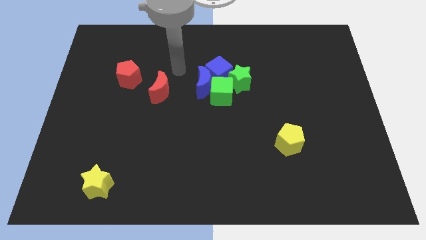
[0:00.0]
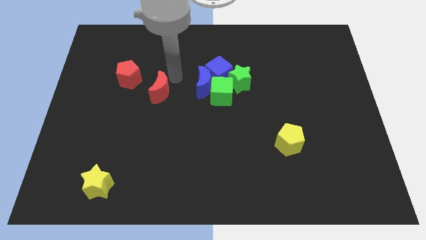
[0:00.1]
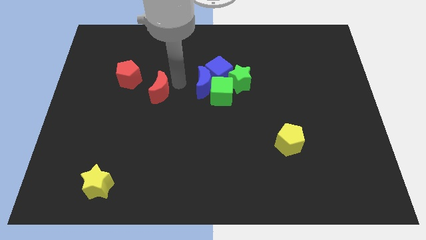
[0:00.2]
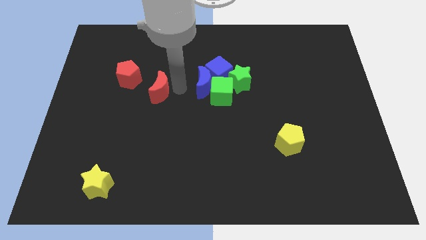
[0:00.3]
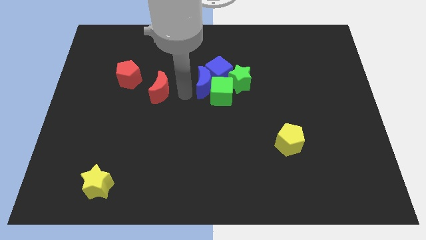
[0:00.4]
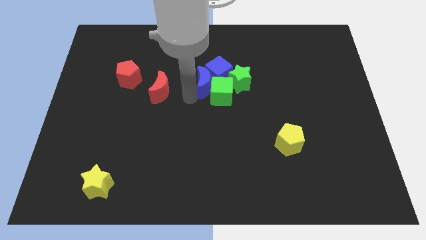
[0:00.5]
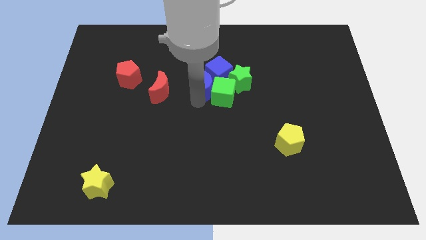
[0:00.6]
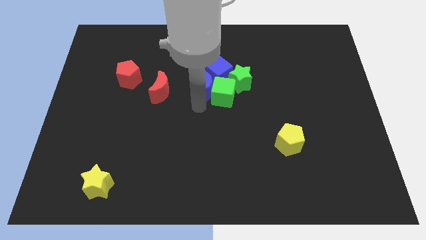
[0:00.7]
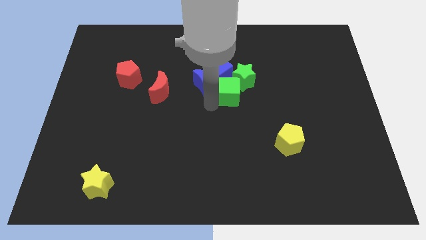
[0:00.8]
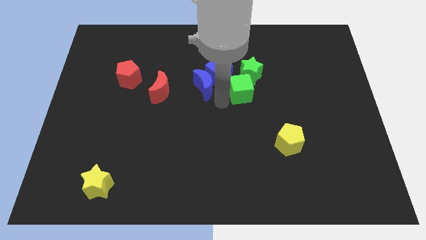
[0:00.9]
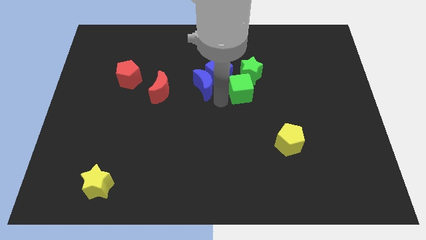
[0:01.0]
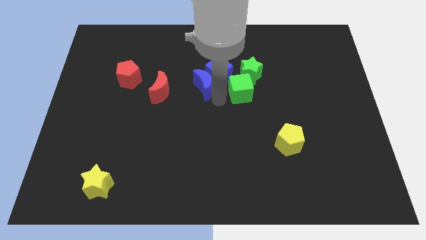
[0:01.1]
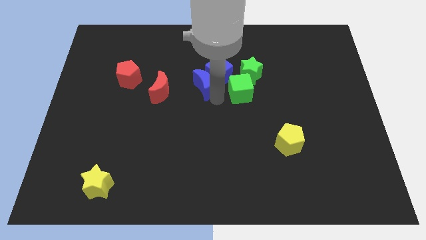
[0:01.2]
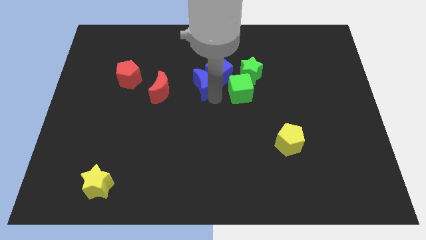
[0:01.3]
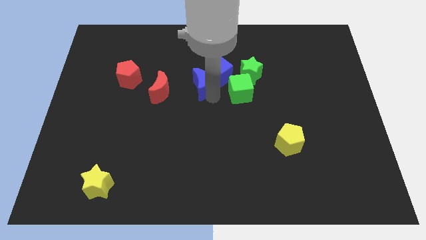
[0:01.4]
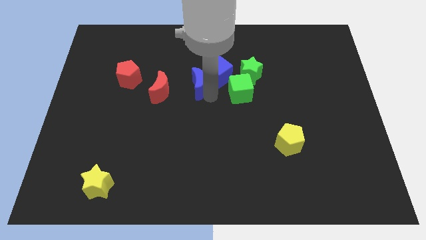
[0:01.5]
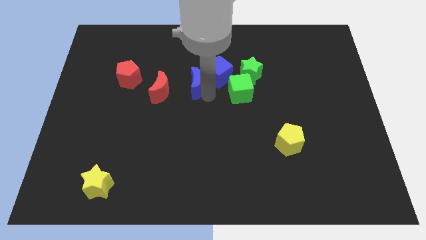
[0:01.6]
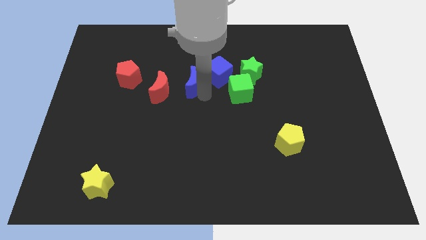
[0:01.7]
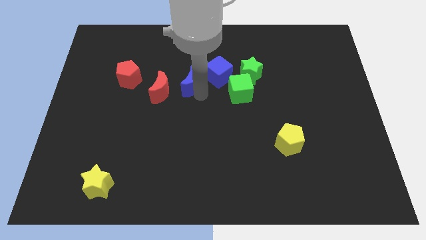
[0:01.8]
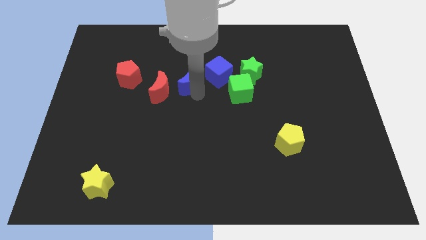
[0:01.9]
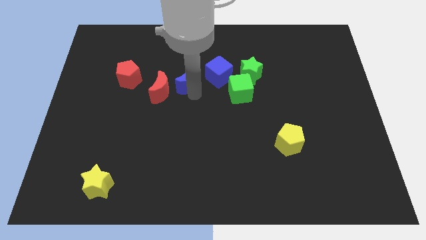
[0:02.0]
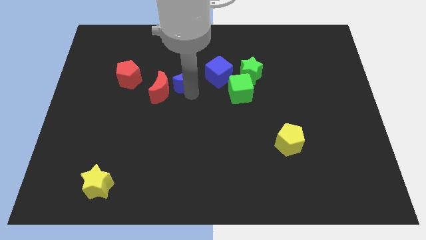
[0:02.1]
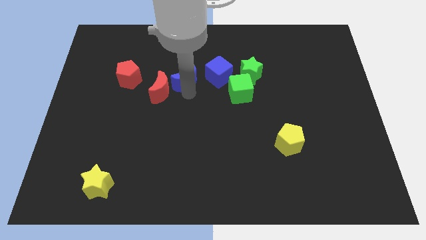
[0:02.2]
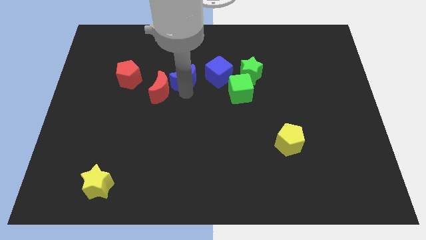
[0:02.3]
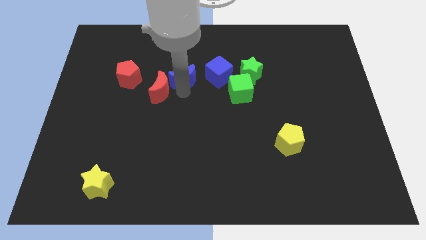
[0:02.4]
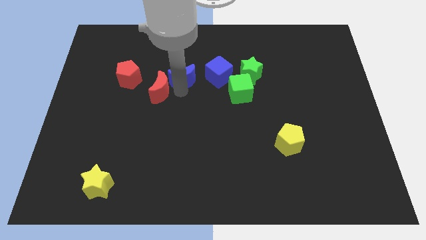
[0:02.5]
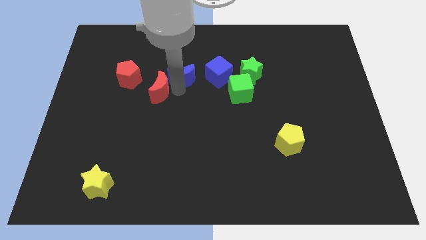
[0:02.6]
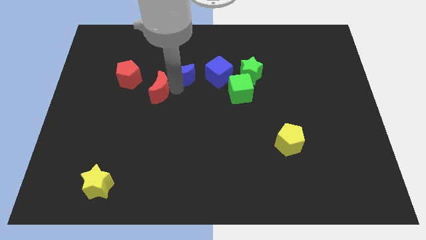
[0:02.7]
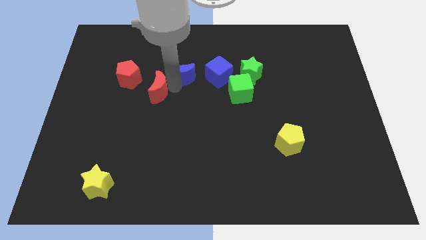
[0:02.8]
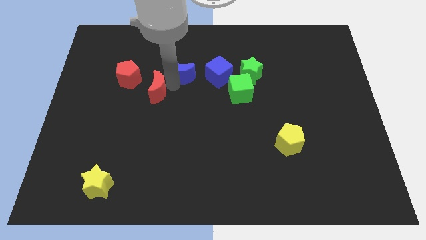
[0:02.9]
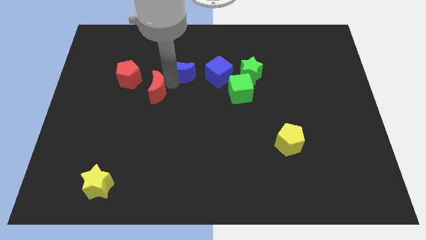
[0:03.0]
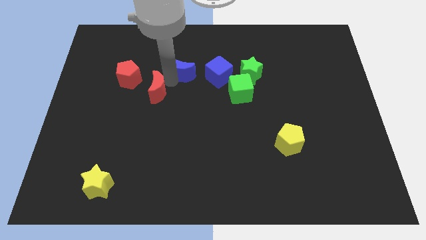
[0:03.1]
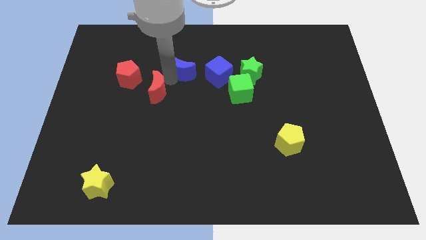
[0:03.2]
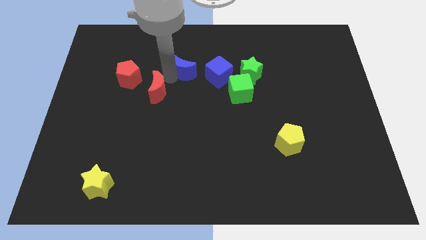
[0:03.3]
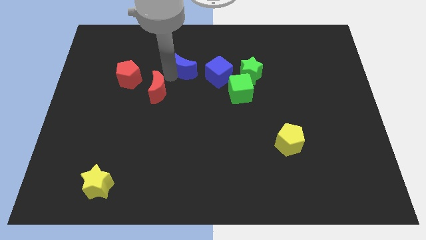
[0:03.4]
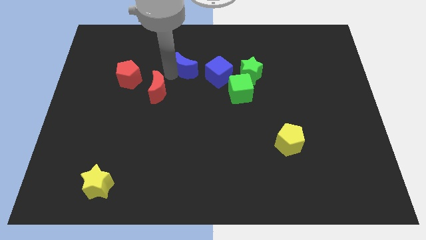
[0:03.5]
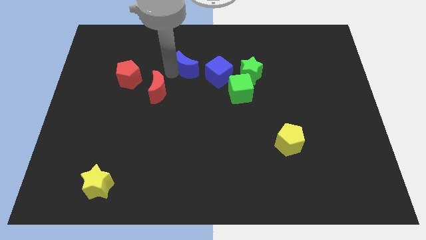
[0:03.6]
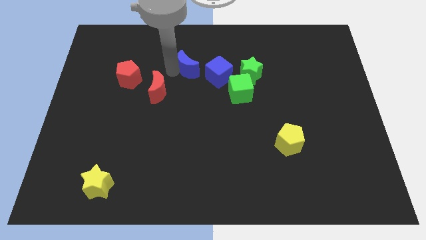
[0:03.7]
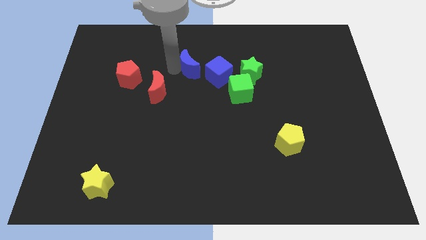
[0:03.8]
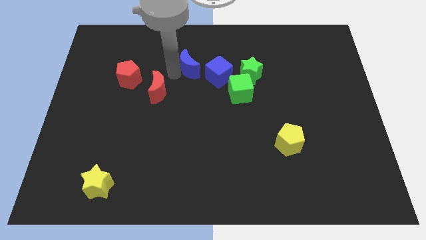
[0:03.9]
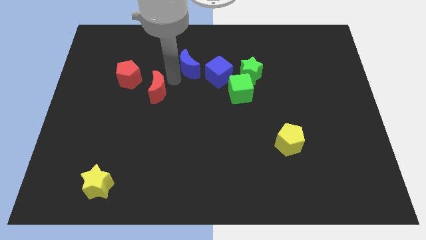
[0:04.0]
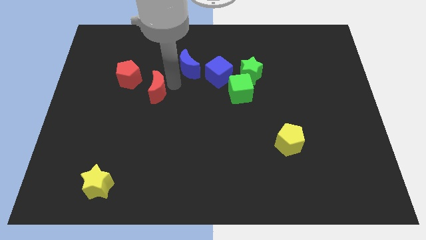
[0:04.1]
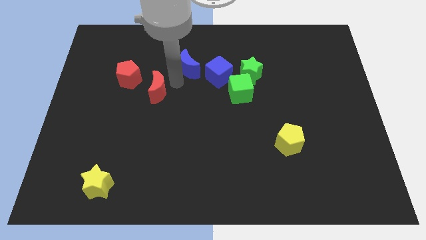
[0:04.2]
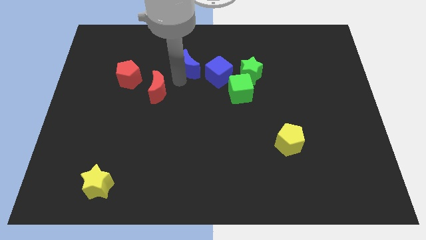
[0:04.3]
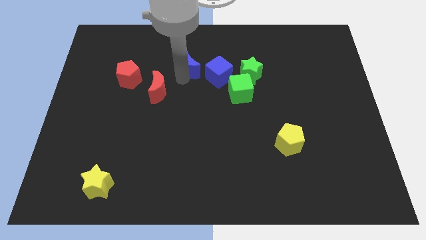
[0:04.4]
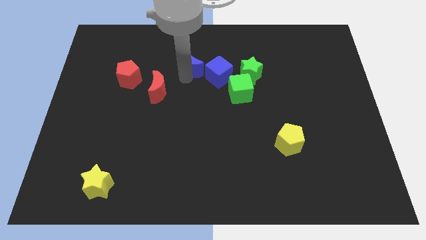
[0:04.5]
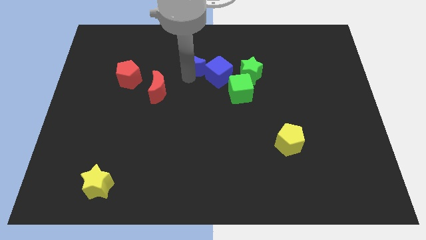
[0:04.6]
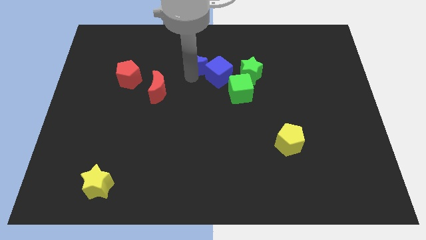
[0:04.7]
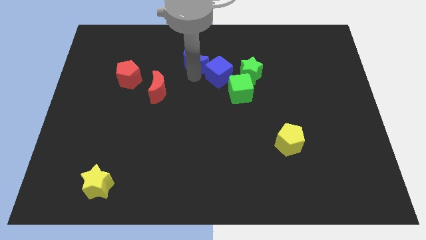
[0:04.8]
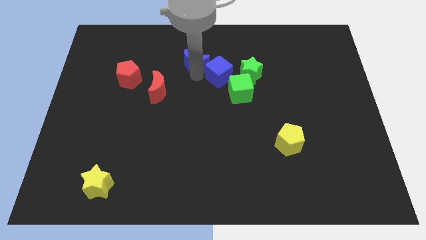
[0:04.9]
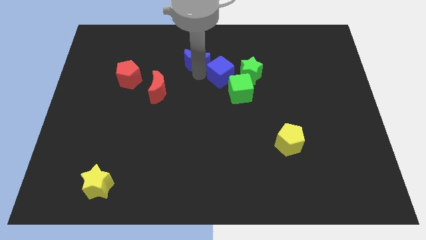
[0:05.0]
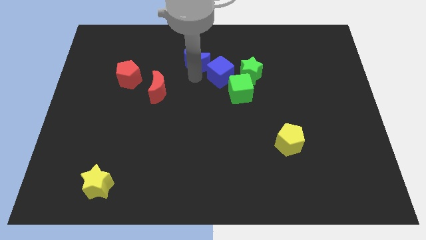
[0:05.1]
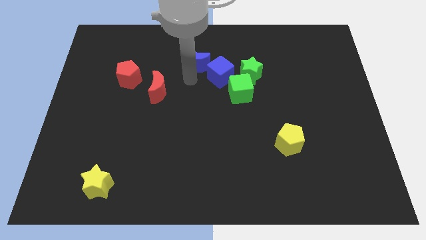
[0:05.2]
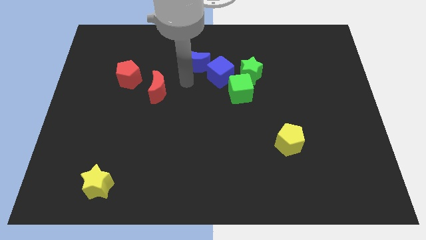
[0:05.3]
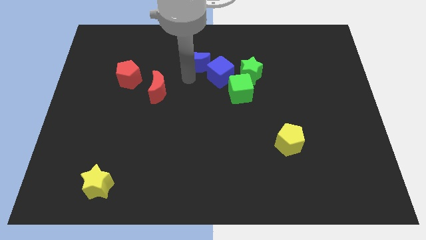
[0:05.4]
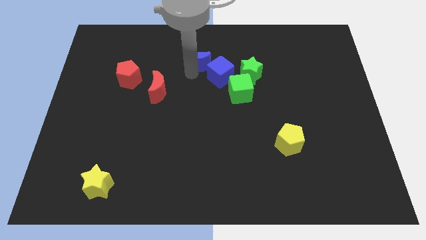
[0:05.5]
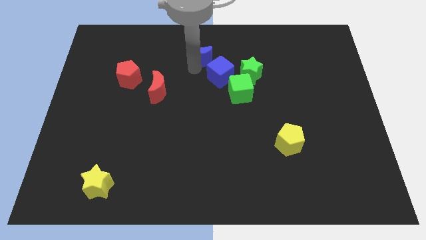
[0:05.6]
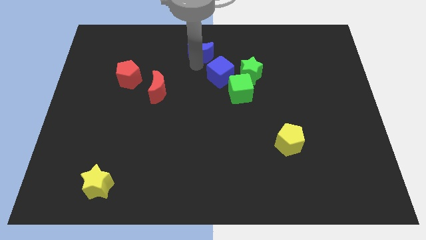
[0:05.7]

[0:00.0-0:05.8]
push the blue moon to the top side

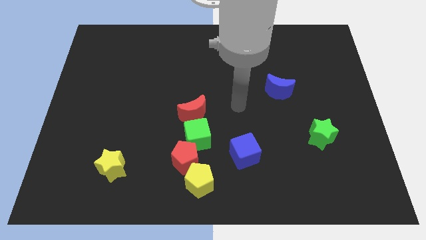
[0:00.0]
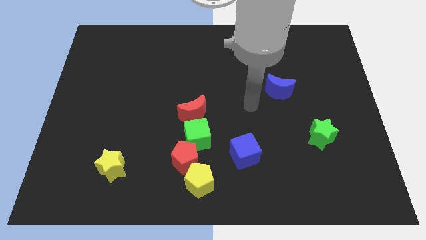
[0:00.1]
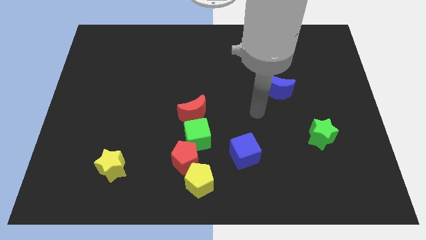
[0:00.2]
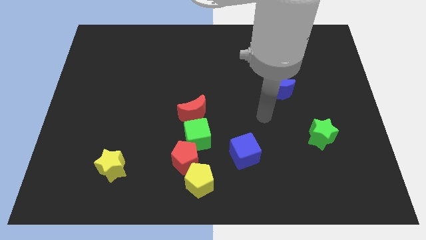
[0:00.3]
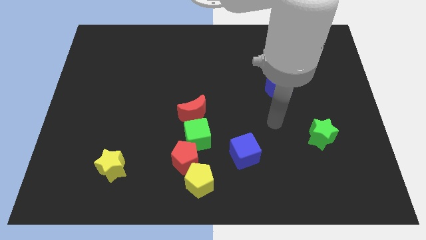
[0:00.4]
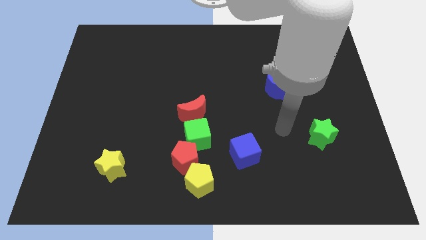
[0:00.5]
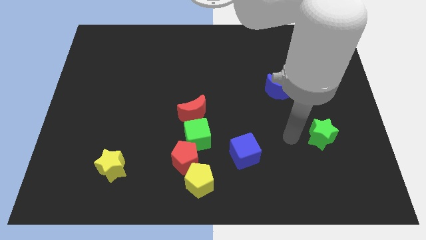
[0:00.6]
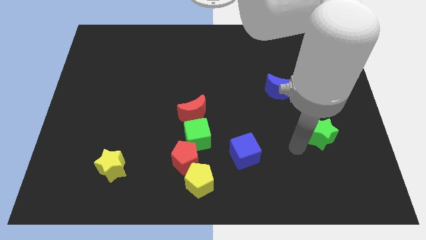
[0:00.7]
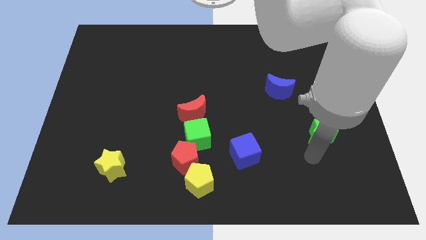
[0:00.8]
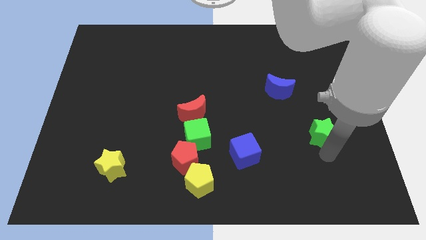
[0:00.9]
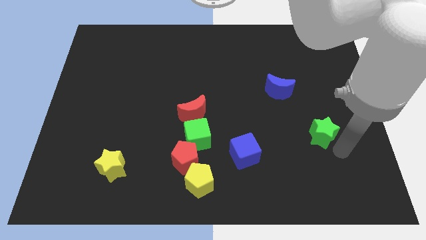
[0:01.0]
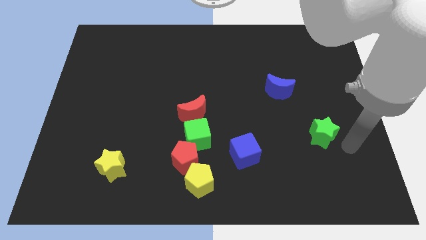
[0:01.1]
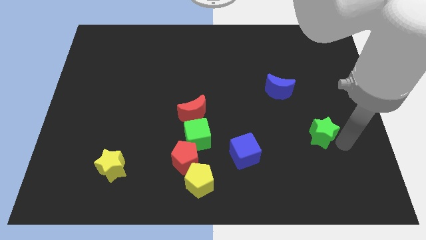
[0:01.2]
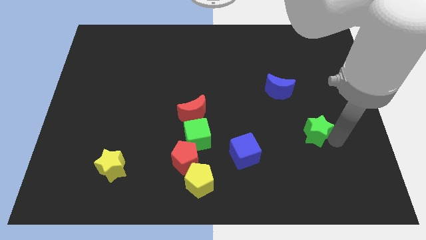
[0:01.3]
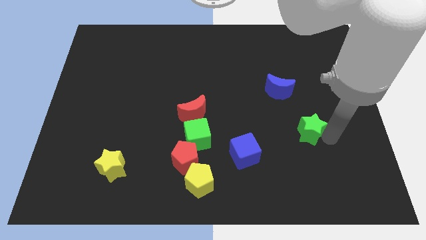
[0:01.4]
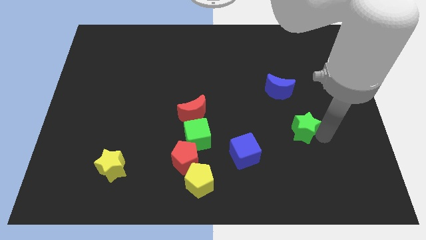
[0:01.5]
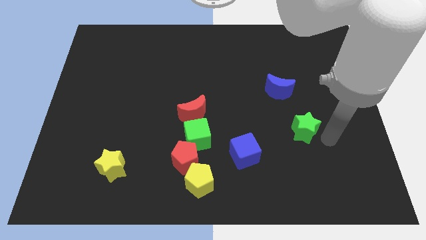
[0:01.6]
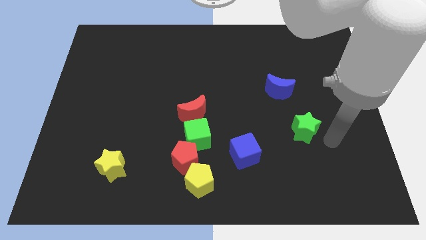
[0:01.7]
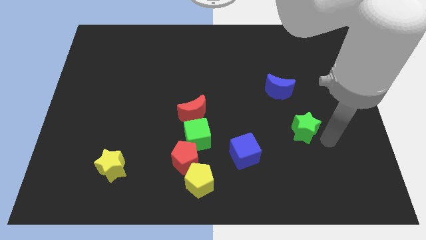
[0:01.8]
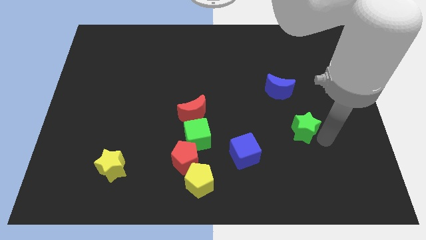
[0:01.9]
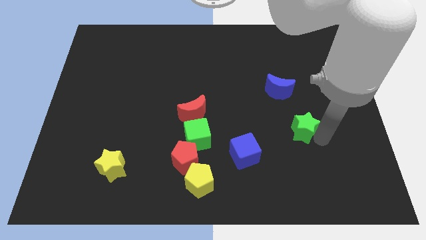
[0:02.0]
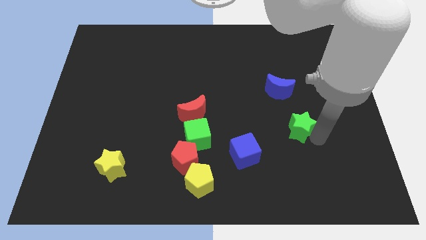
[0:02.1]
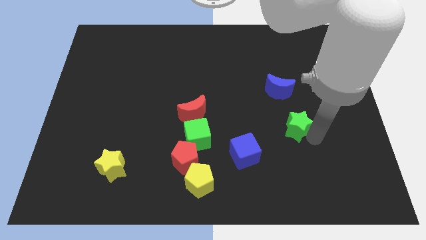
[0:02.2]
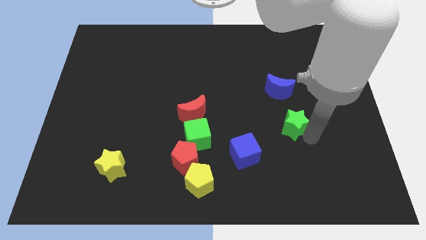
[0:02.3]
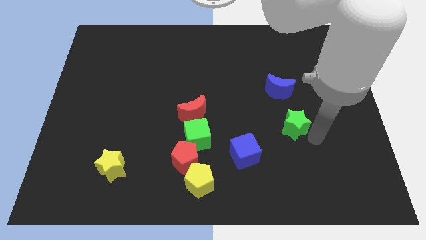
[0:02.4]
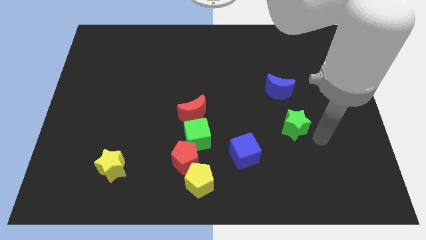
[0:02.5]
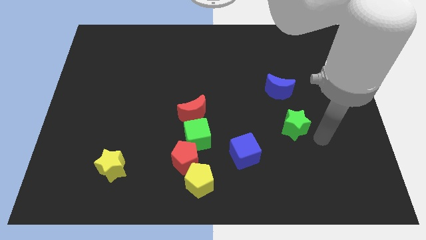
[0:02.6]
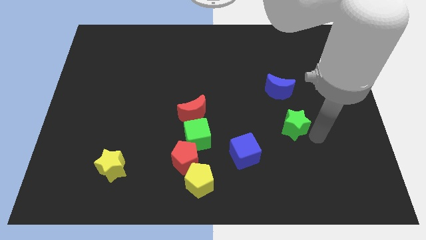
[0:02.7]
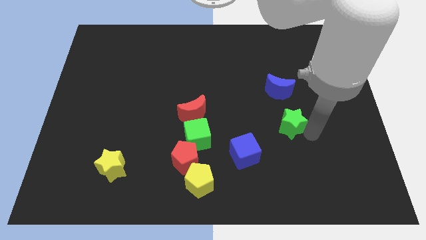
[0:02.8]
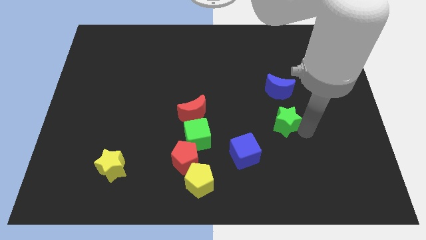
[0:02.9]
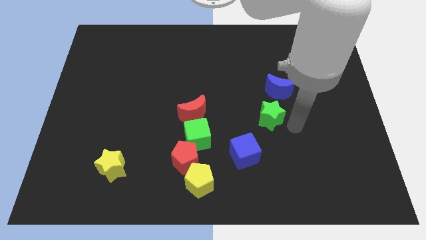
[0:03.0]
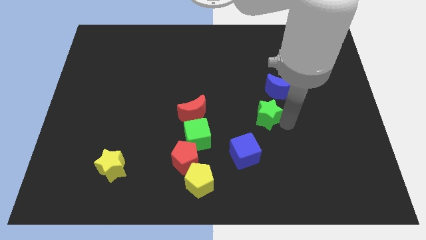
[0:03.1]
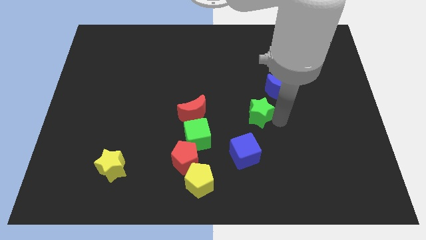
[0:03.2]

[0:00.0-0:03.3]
put the green star to the center of the board
